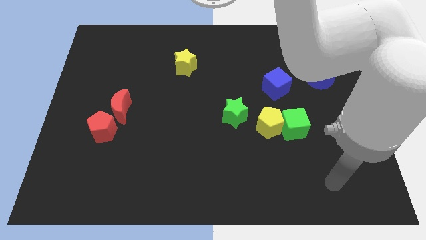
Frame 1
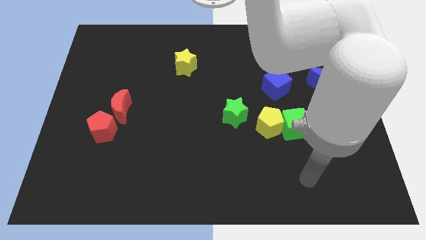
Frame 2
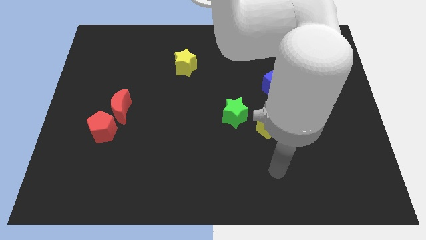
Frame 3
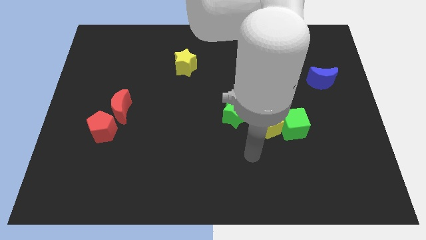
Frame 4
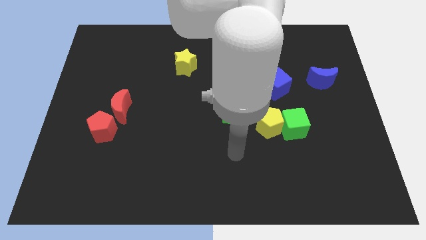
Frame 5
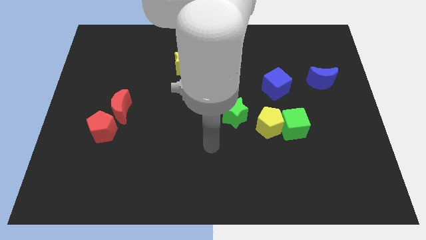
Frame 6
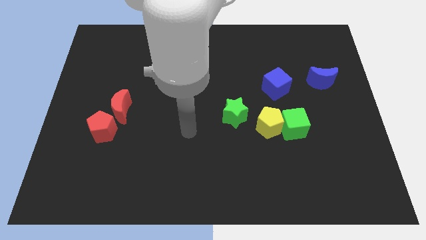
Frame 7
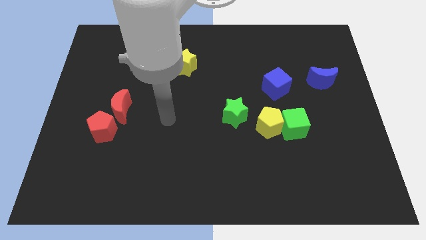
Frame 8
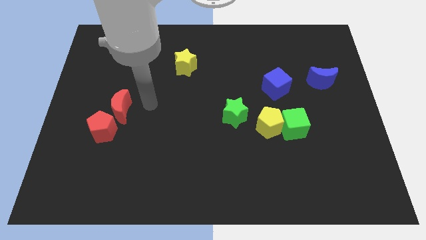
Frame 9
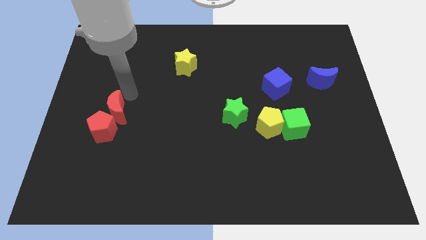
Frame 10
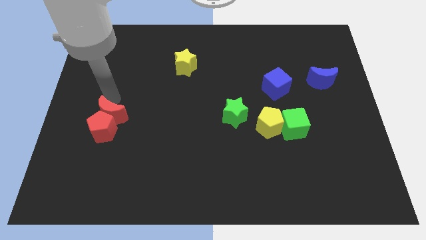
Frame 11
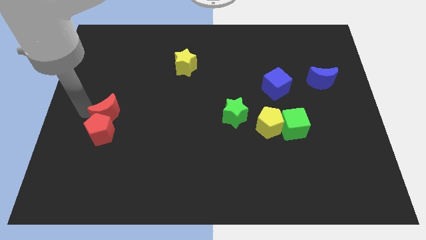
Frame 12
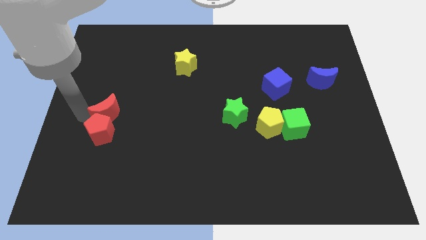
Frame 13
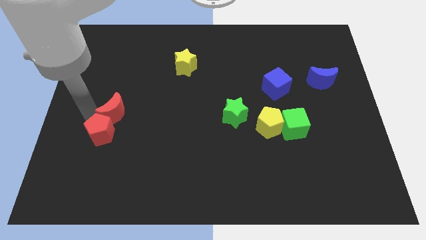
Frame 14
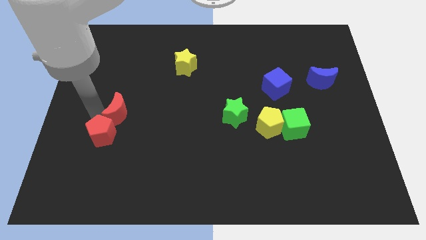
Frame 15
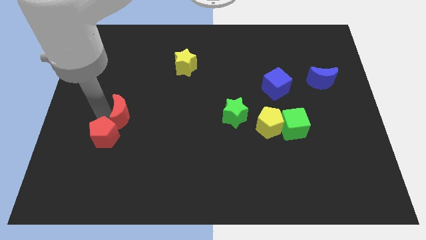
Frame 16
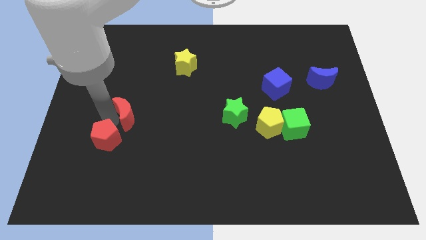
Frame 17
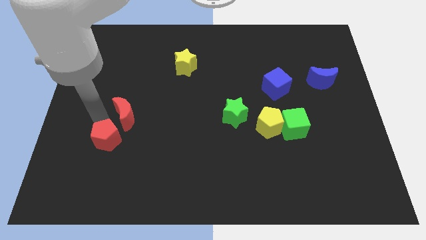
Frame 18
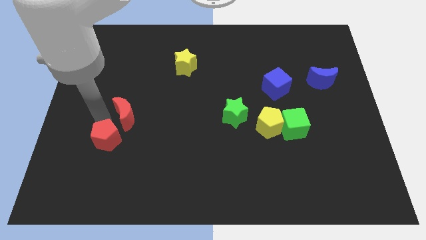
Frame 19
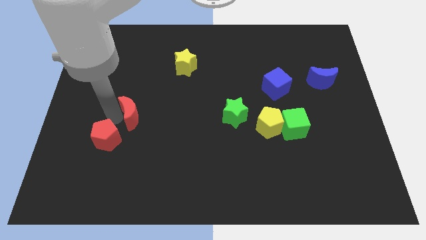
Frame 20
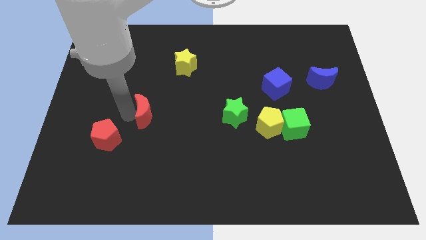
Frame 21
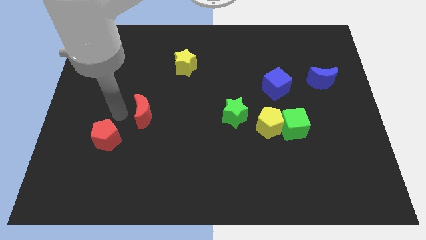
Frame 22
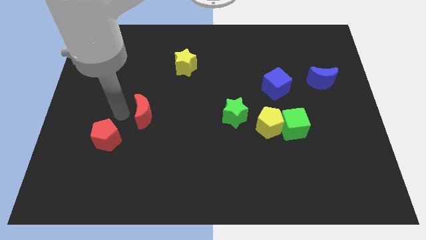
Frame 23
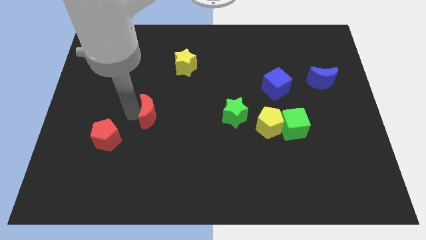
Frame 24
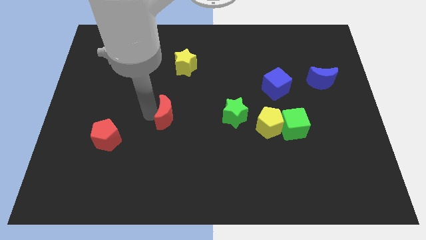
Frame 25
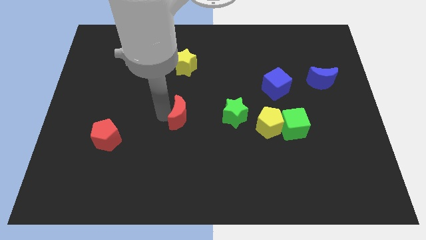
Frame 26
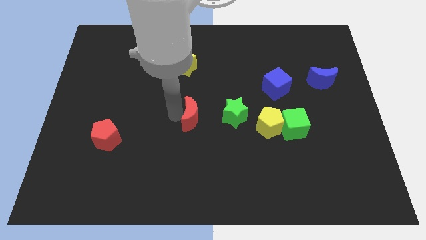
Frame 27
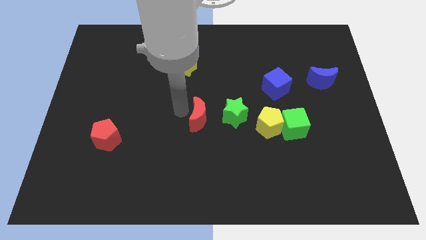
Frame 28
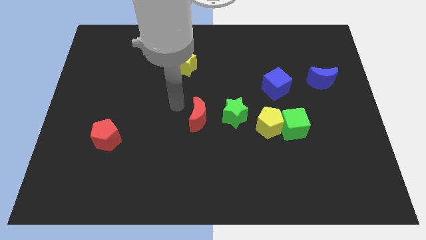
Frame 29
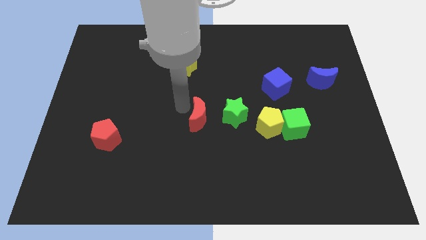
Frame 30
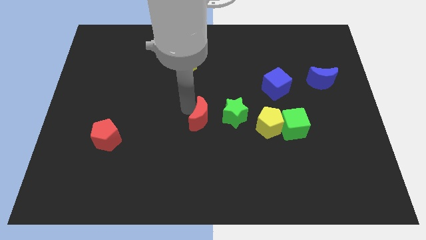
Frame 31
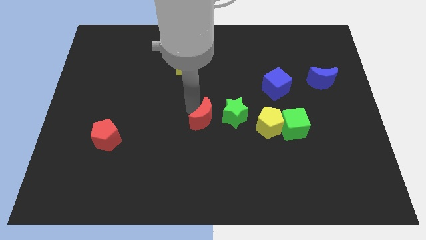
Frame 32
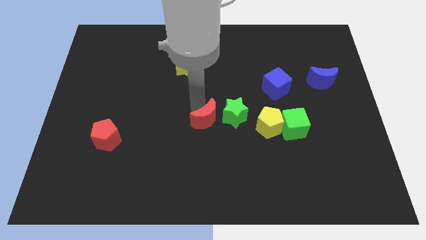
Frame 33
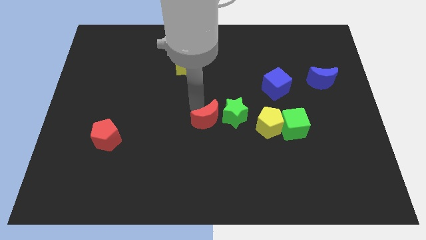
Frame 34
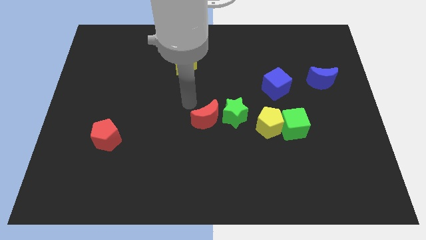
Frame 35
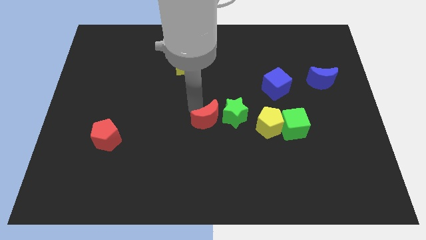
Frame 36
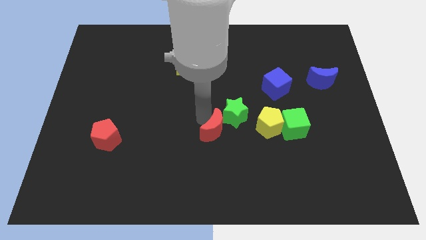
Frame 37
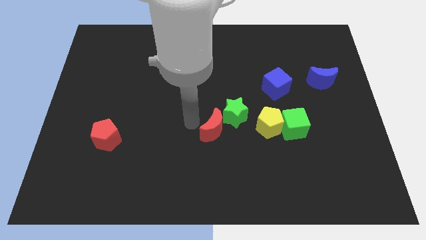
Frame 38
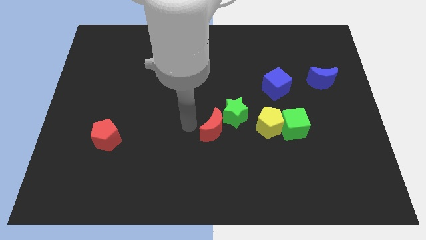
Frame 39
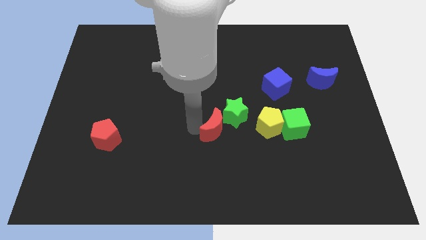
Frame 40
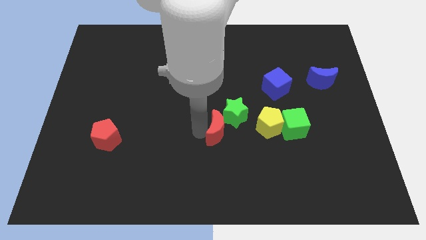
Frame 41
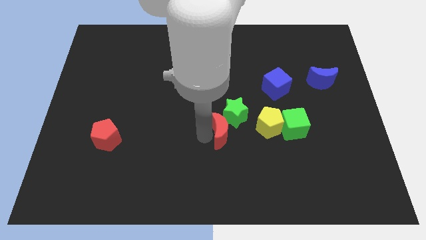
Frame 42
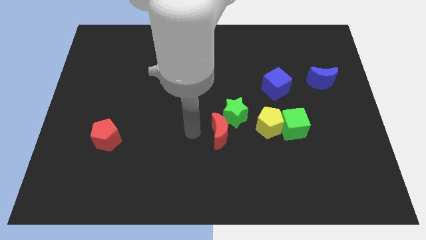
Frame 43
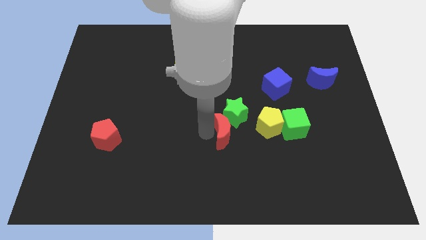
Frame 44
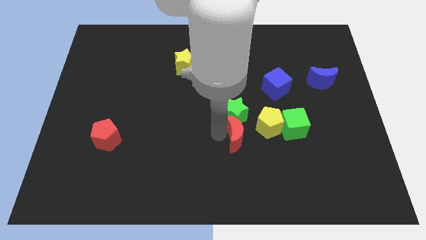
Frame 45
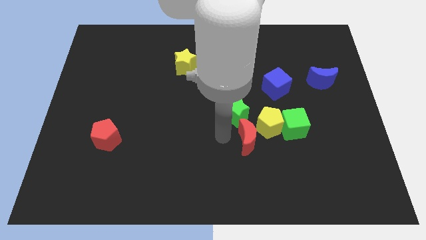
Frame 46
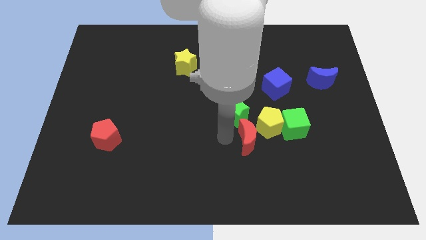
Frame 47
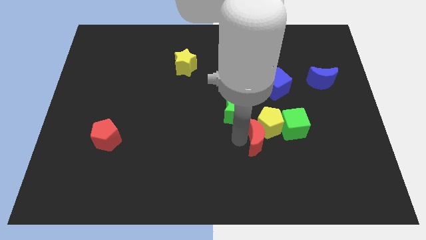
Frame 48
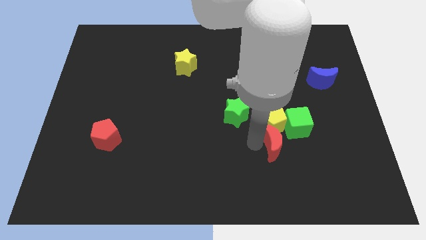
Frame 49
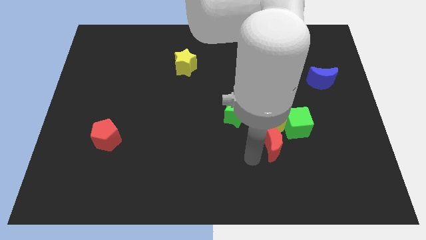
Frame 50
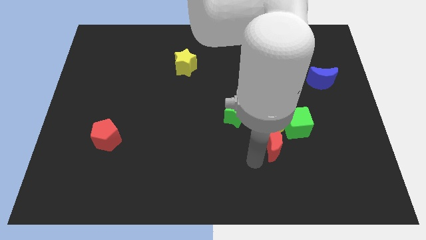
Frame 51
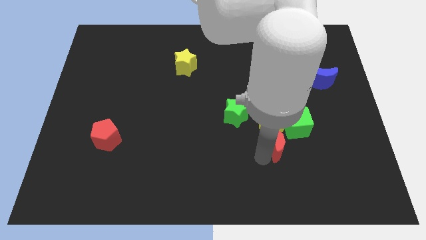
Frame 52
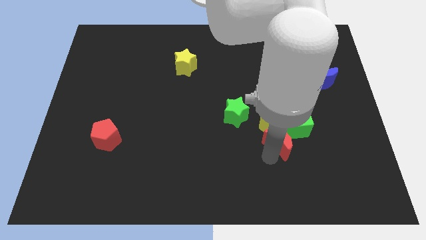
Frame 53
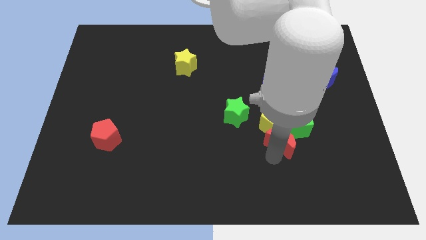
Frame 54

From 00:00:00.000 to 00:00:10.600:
push the red moon towards the green cube
